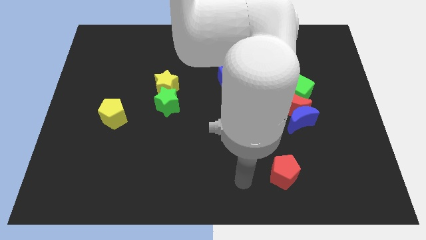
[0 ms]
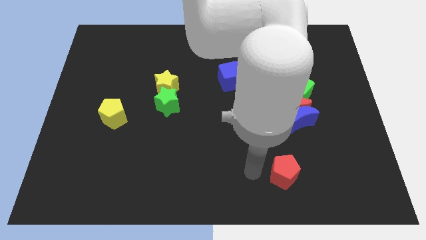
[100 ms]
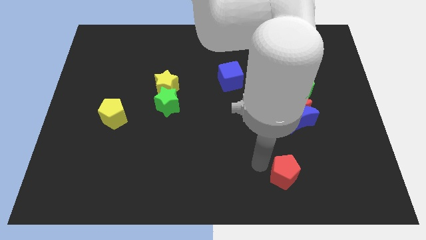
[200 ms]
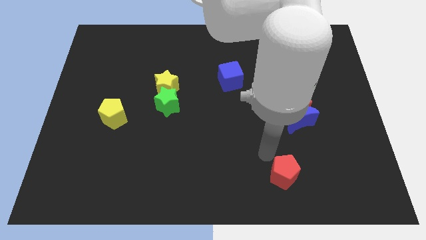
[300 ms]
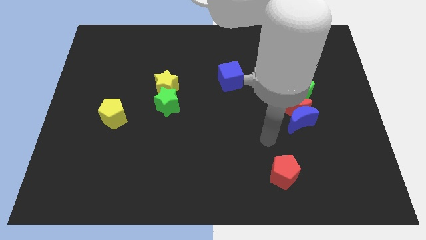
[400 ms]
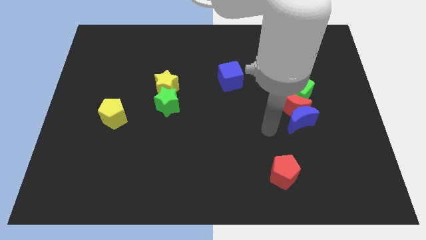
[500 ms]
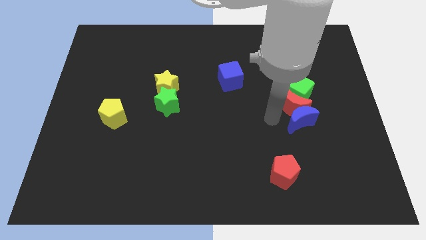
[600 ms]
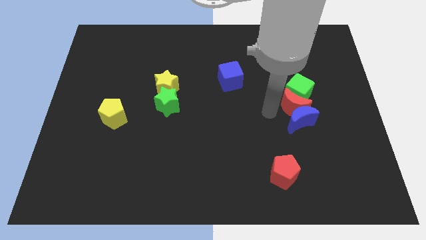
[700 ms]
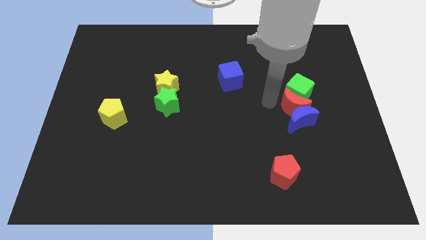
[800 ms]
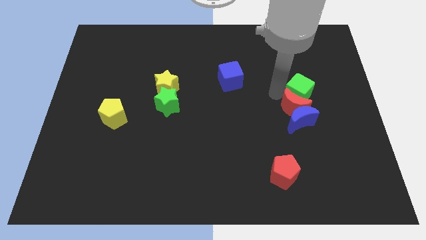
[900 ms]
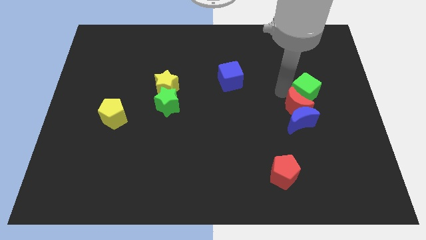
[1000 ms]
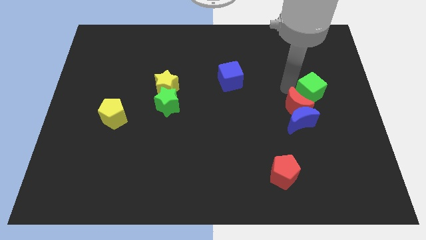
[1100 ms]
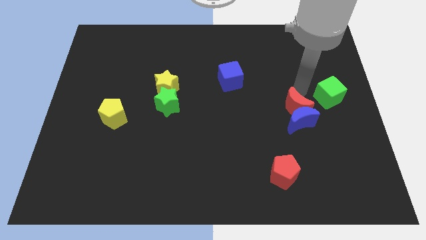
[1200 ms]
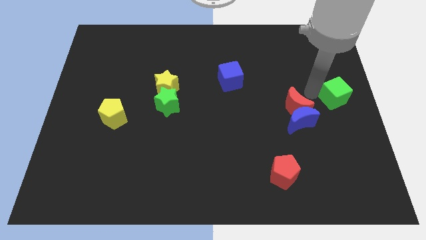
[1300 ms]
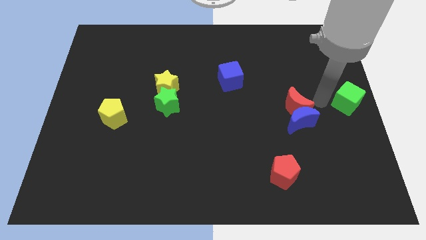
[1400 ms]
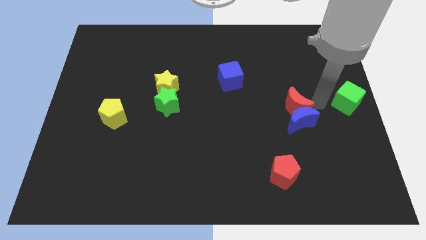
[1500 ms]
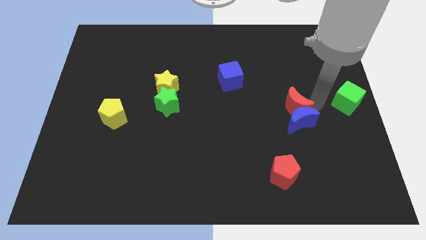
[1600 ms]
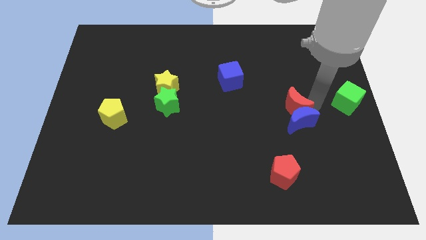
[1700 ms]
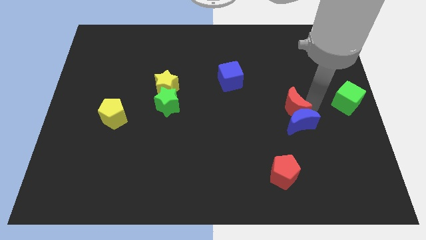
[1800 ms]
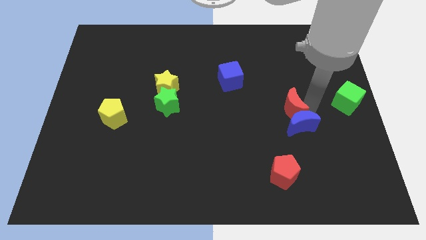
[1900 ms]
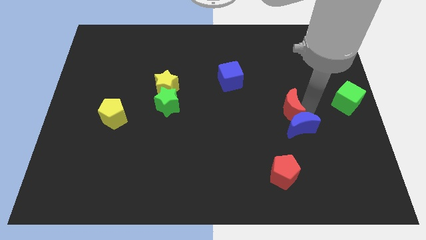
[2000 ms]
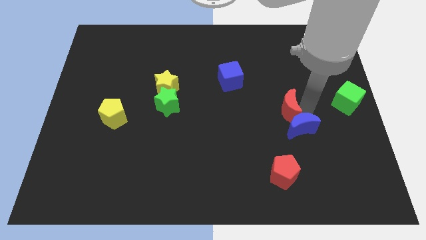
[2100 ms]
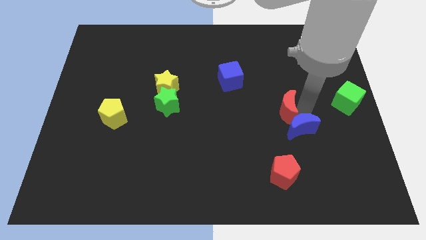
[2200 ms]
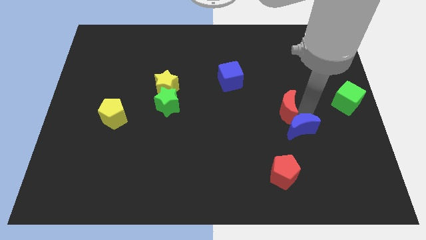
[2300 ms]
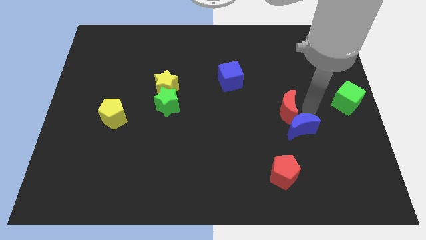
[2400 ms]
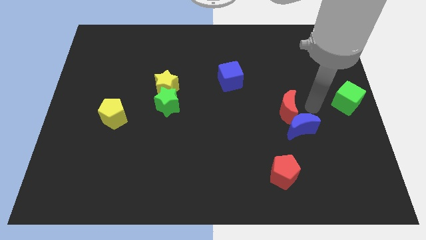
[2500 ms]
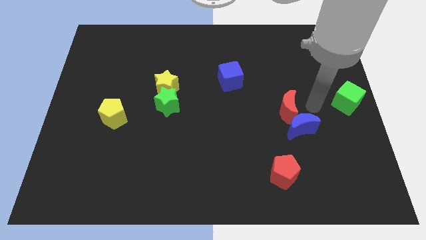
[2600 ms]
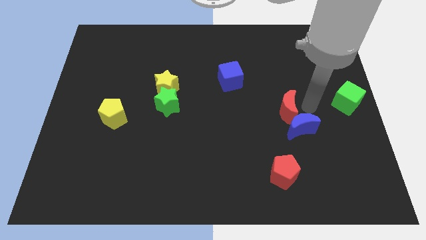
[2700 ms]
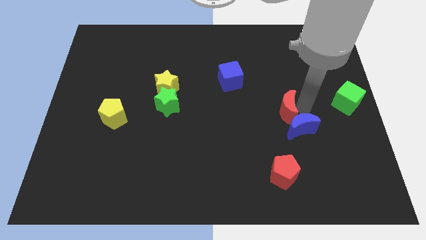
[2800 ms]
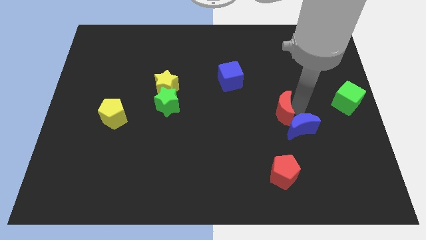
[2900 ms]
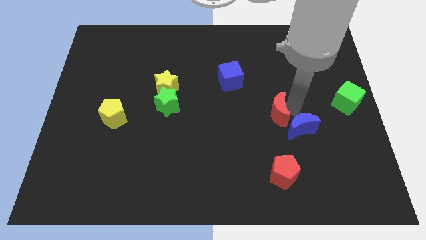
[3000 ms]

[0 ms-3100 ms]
pull the red moon apart from the blue moon and green cube

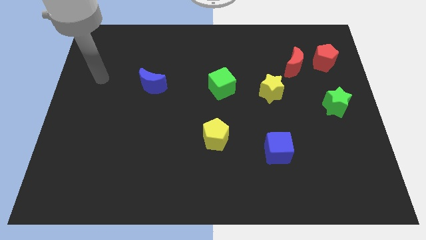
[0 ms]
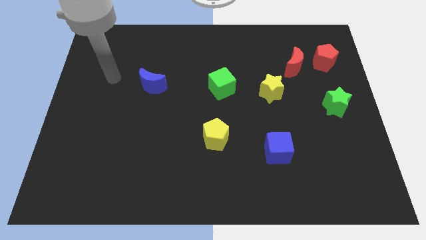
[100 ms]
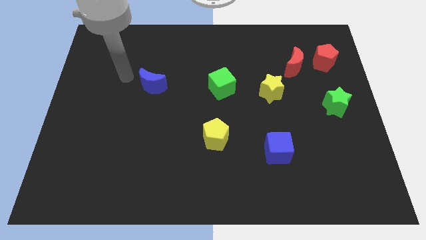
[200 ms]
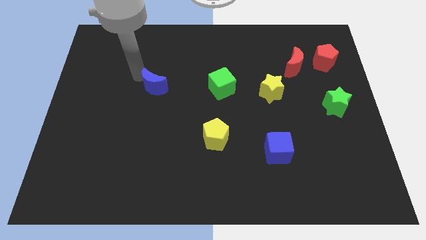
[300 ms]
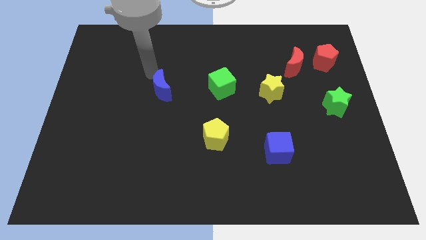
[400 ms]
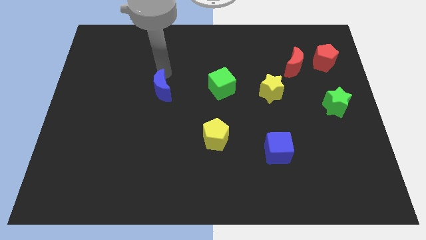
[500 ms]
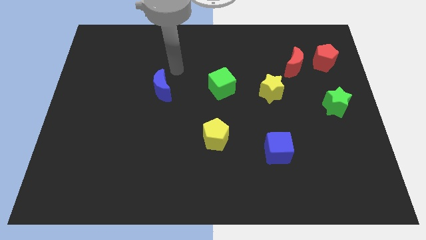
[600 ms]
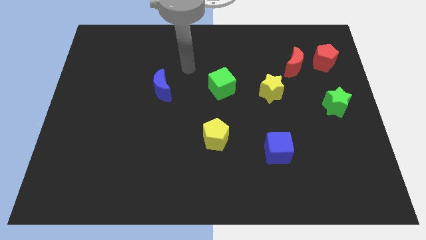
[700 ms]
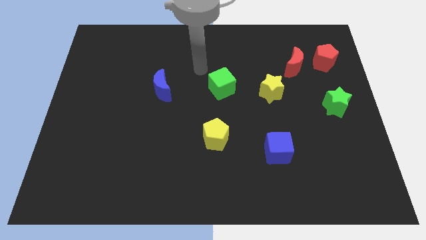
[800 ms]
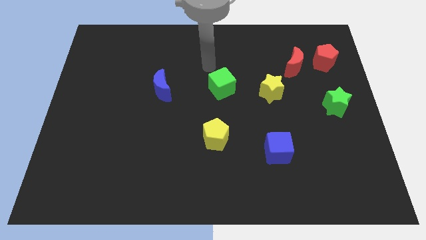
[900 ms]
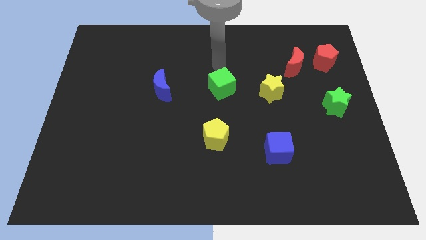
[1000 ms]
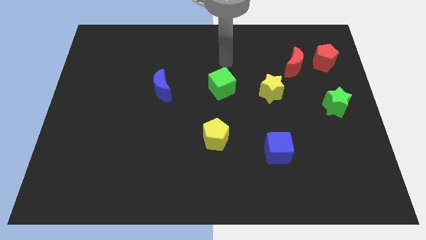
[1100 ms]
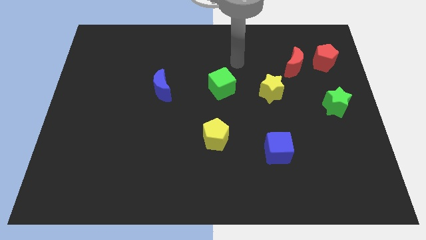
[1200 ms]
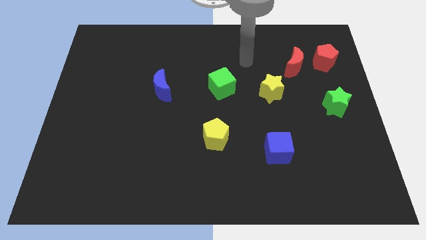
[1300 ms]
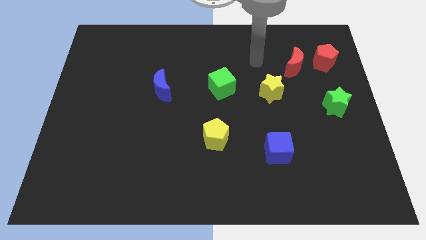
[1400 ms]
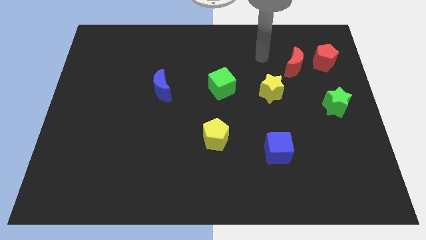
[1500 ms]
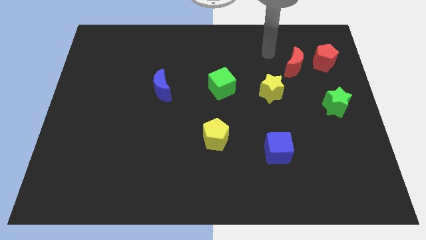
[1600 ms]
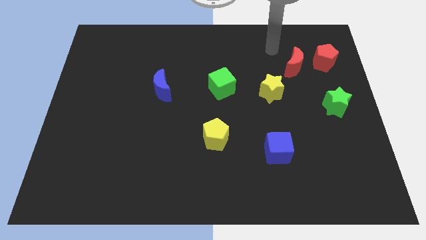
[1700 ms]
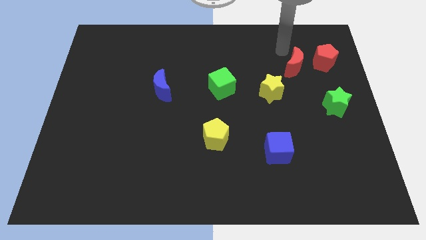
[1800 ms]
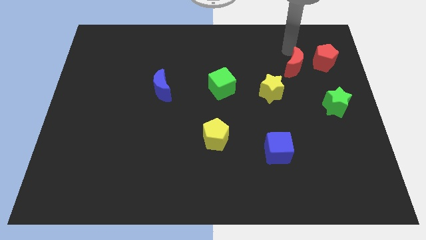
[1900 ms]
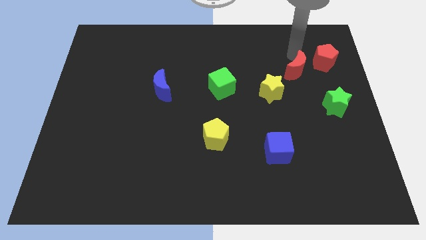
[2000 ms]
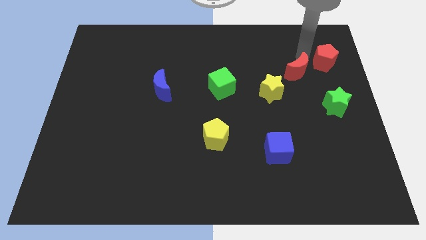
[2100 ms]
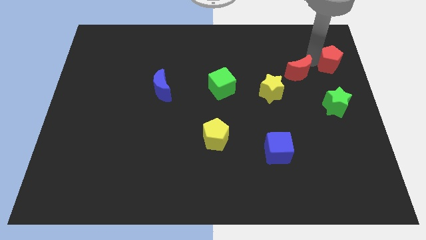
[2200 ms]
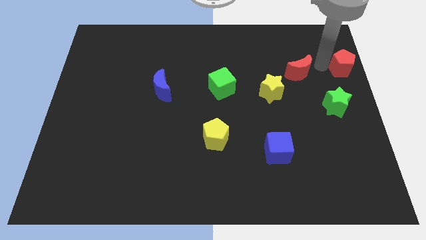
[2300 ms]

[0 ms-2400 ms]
pull the red moon apart from the red pentagon

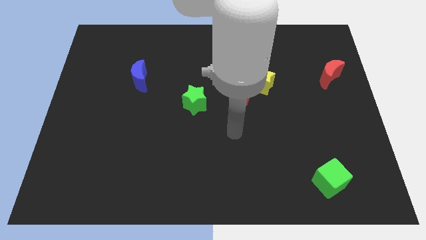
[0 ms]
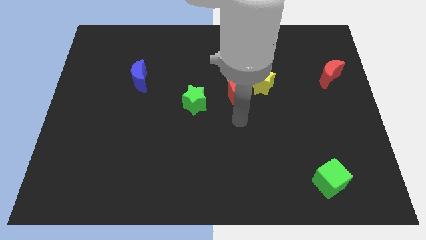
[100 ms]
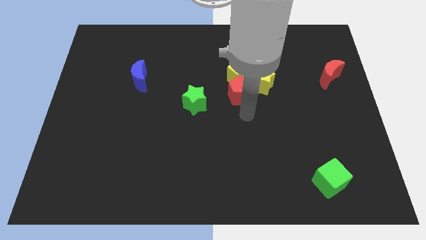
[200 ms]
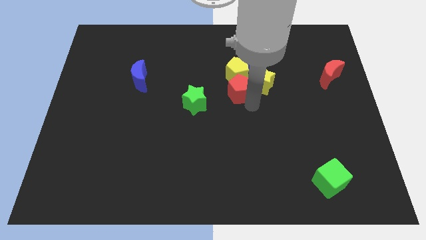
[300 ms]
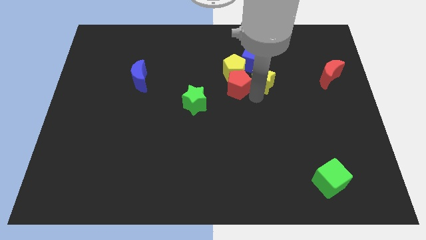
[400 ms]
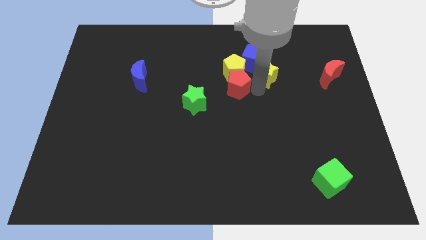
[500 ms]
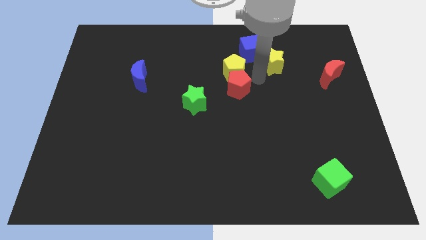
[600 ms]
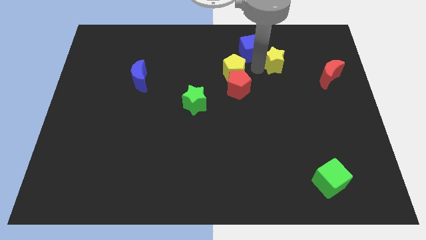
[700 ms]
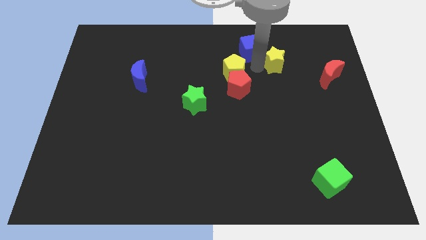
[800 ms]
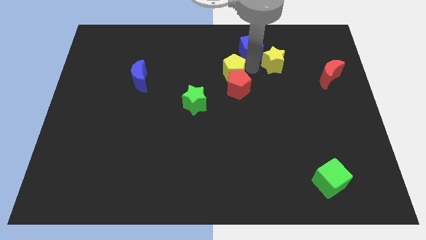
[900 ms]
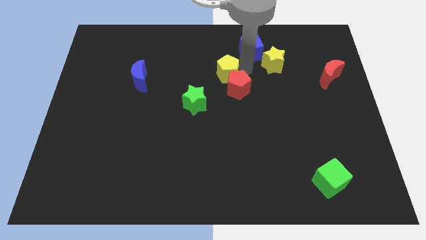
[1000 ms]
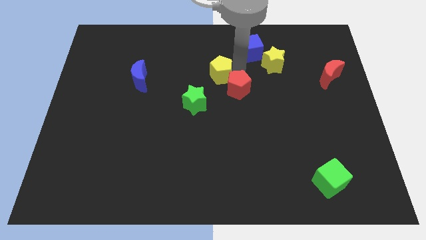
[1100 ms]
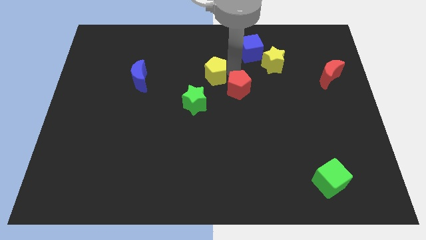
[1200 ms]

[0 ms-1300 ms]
separate the yellow pentagon from the clump

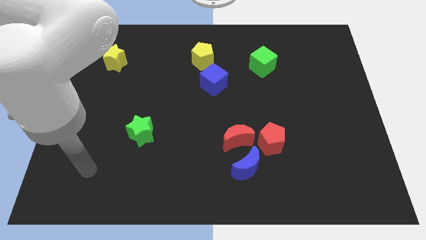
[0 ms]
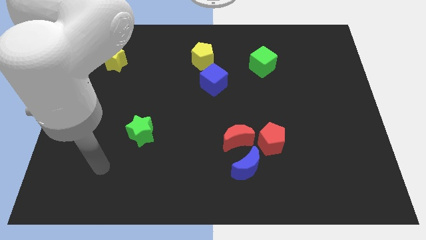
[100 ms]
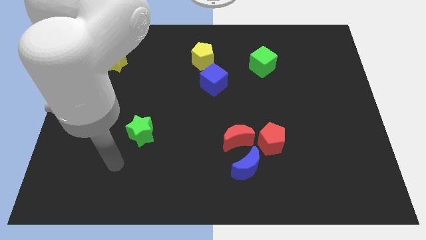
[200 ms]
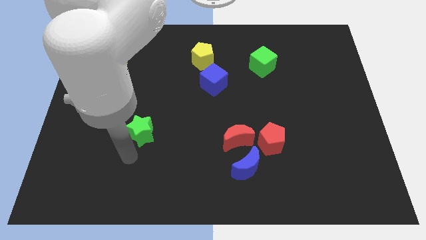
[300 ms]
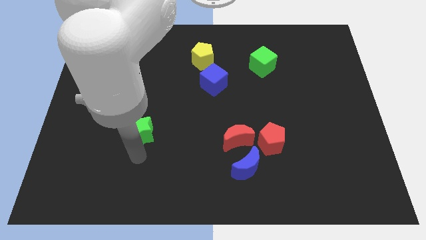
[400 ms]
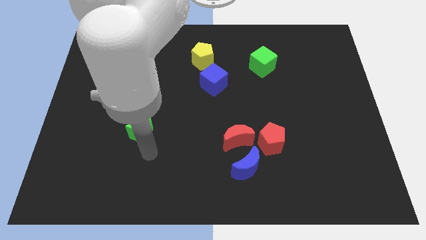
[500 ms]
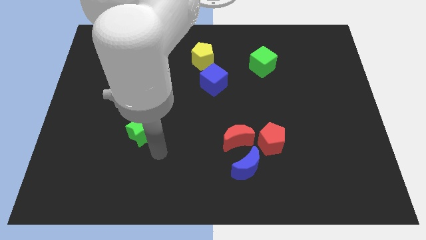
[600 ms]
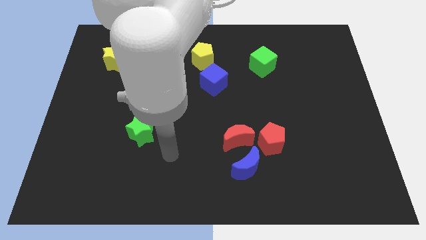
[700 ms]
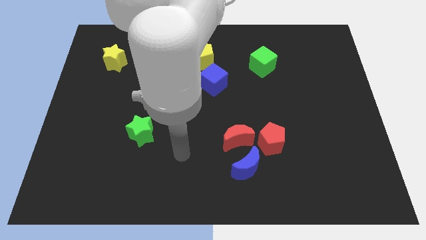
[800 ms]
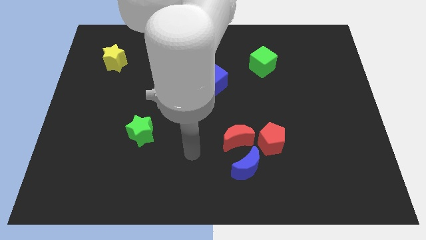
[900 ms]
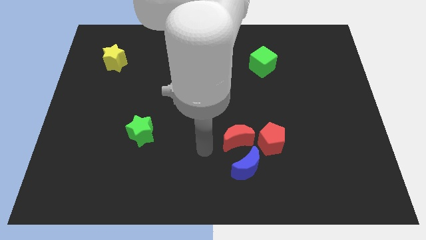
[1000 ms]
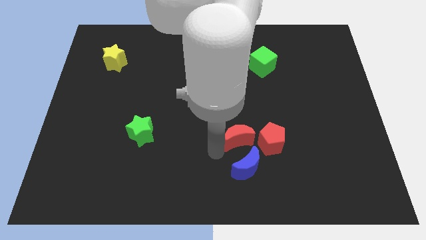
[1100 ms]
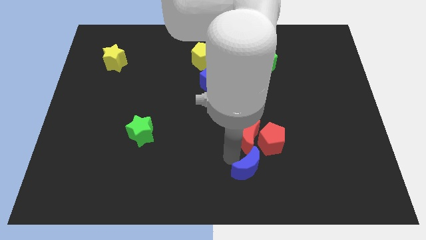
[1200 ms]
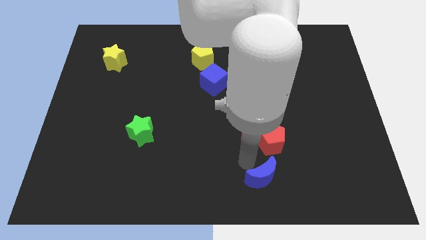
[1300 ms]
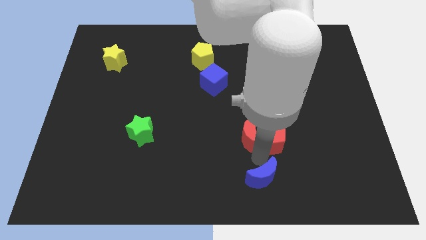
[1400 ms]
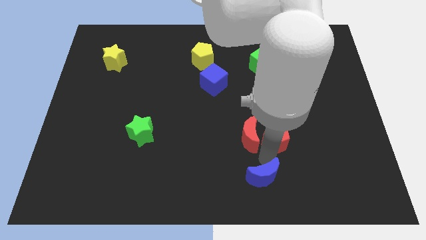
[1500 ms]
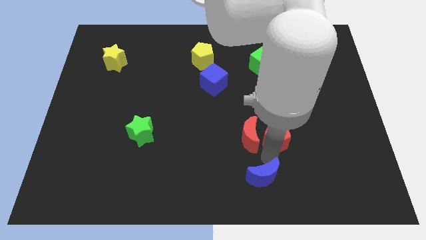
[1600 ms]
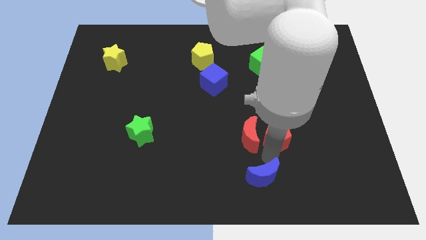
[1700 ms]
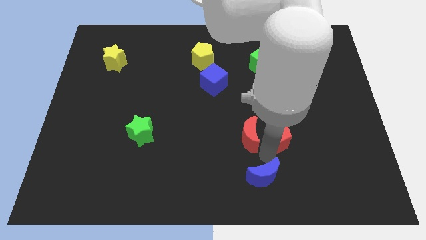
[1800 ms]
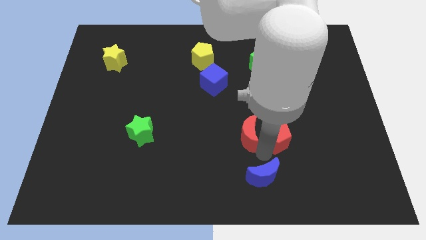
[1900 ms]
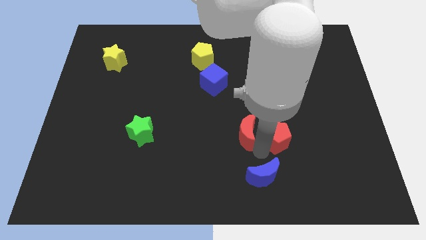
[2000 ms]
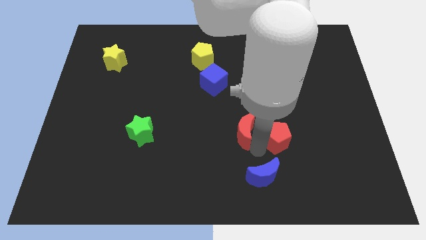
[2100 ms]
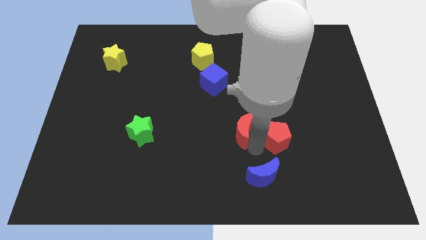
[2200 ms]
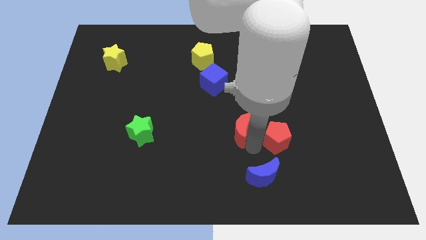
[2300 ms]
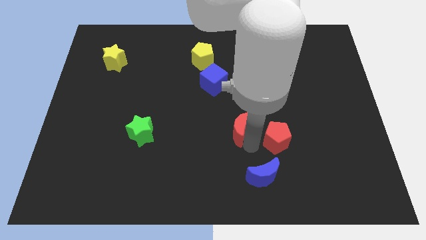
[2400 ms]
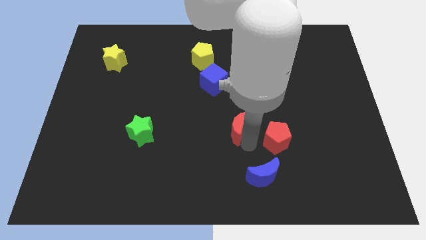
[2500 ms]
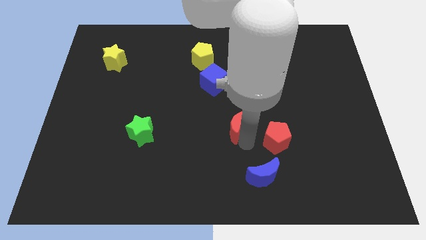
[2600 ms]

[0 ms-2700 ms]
separate the red moon from the blue moon and red pentagon
